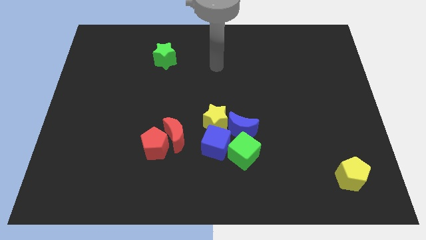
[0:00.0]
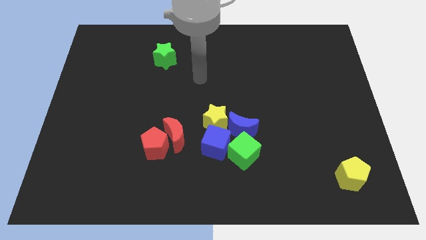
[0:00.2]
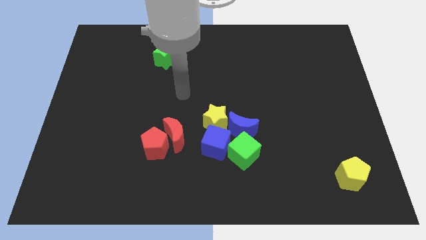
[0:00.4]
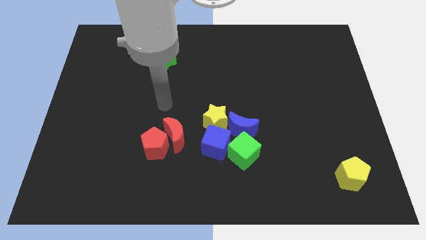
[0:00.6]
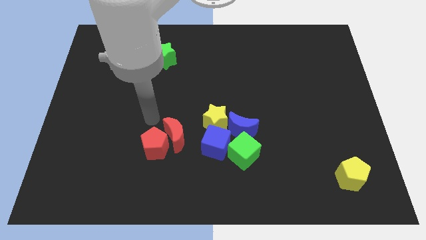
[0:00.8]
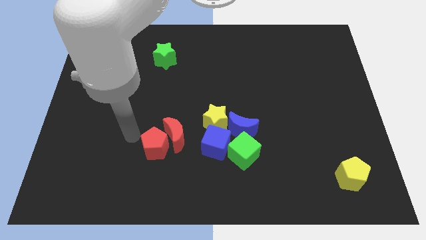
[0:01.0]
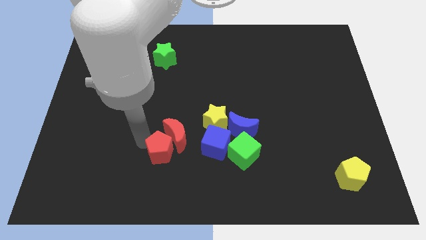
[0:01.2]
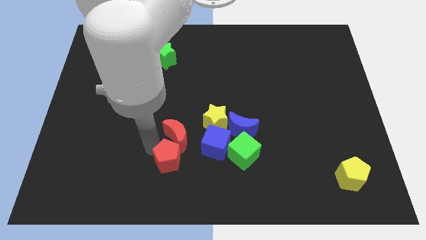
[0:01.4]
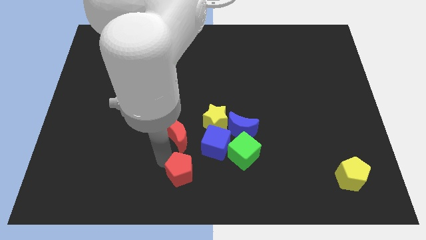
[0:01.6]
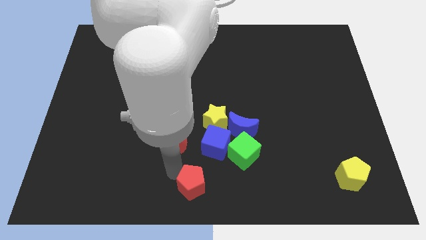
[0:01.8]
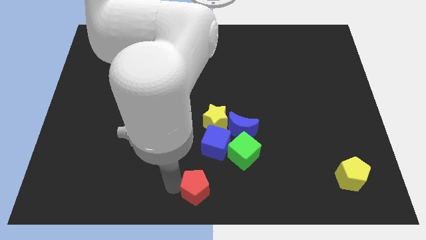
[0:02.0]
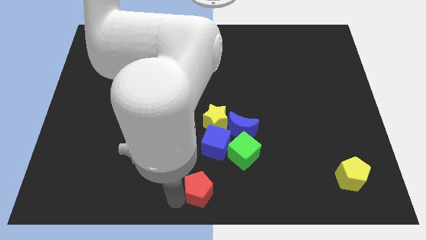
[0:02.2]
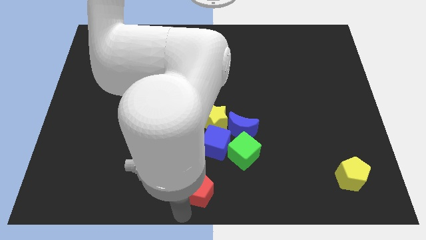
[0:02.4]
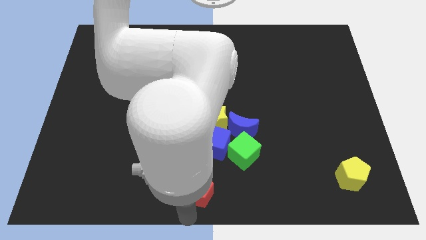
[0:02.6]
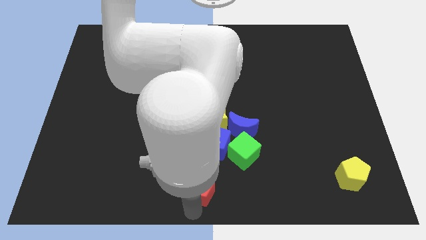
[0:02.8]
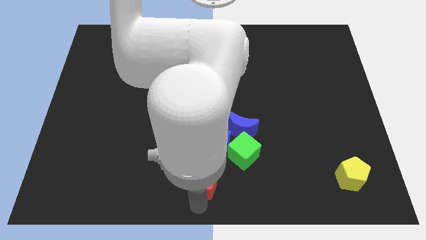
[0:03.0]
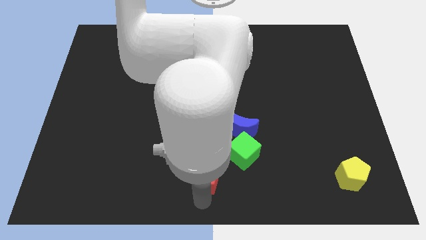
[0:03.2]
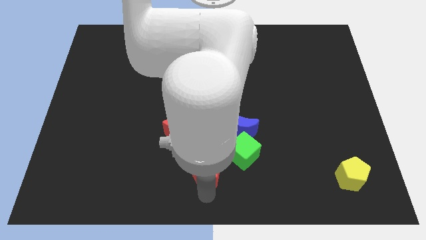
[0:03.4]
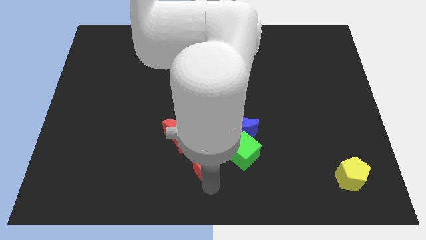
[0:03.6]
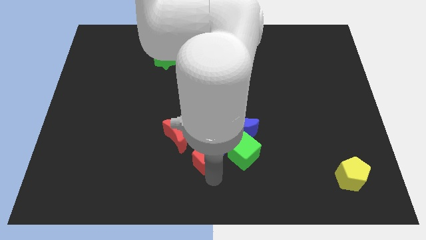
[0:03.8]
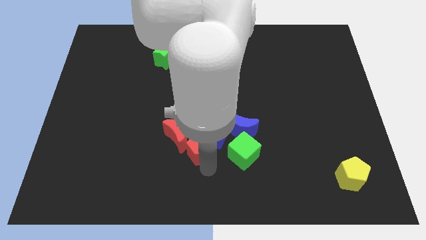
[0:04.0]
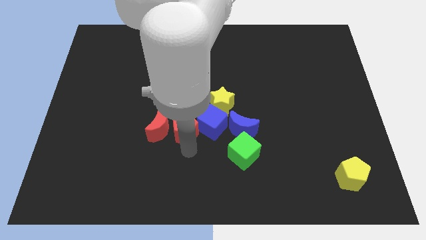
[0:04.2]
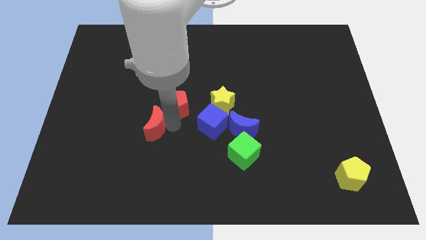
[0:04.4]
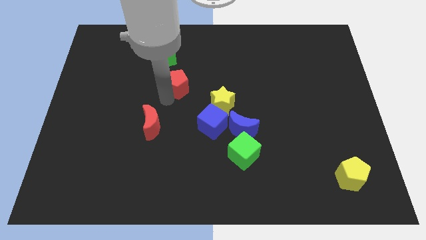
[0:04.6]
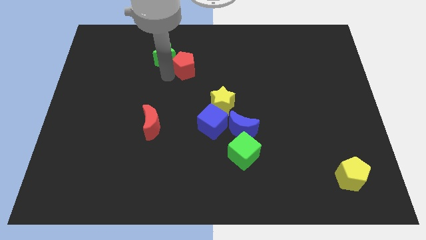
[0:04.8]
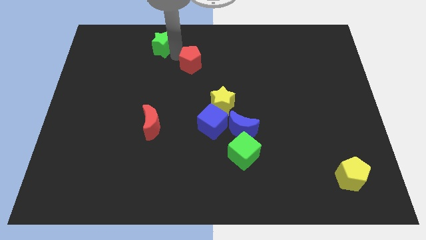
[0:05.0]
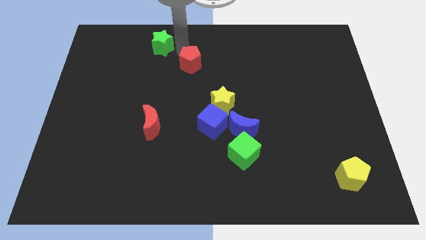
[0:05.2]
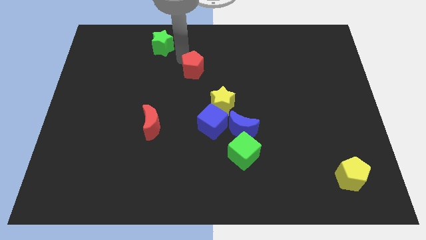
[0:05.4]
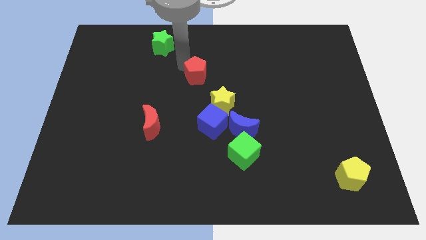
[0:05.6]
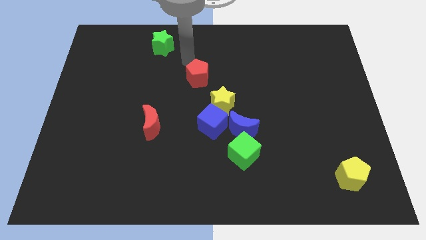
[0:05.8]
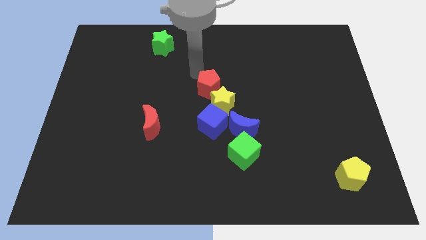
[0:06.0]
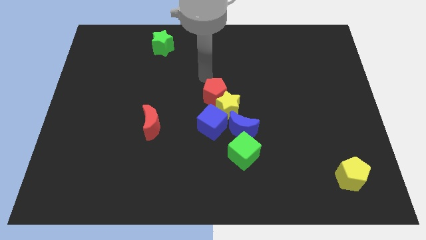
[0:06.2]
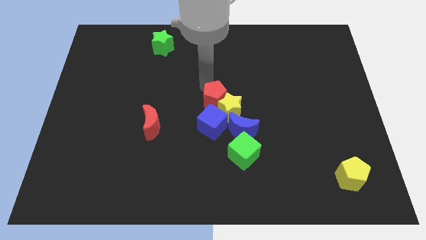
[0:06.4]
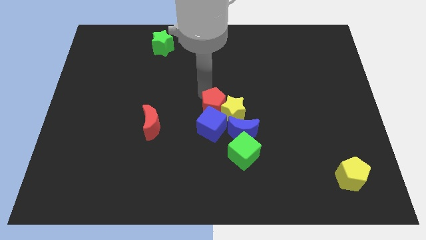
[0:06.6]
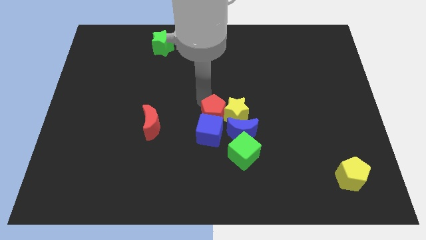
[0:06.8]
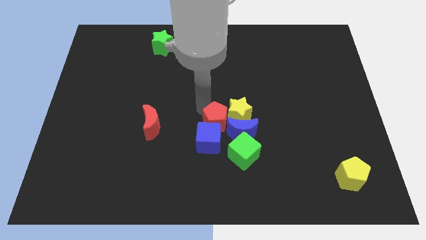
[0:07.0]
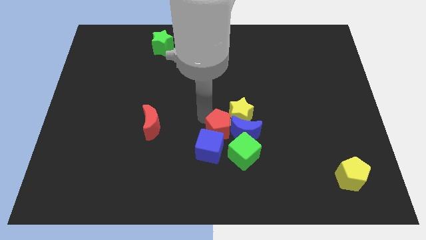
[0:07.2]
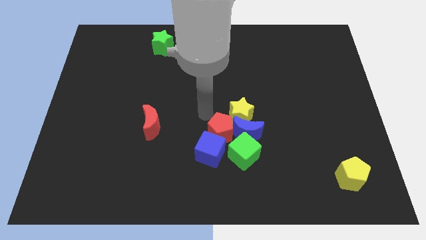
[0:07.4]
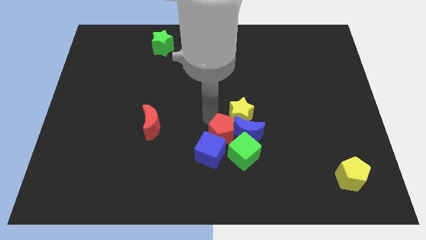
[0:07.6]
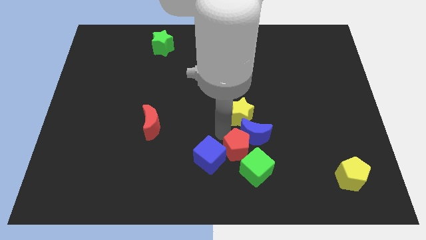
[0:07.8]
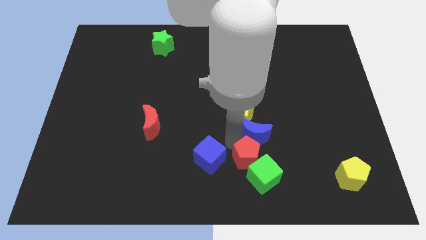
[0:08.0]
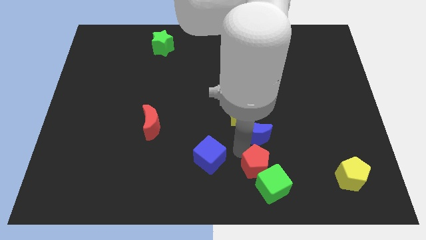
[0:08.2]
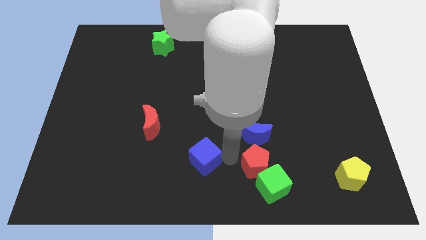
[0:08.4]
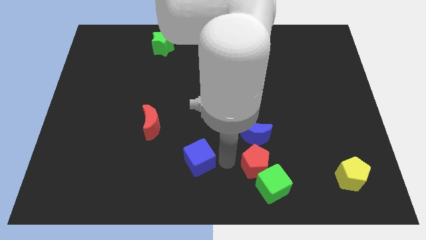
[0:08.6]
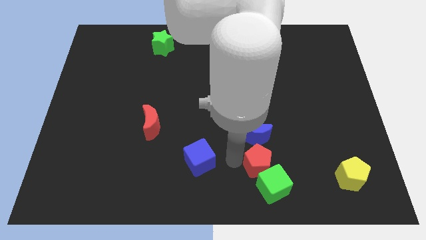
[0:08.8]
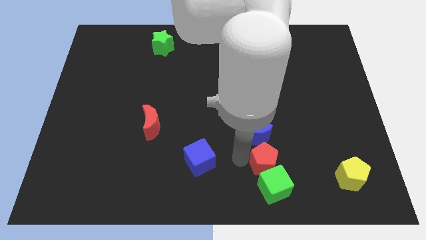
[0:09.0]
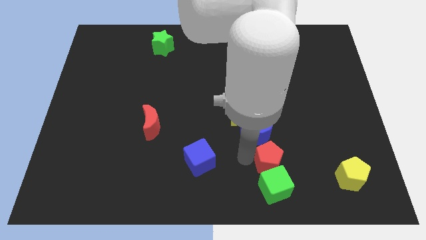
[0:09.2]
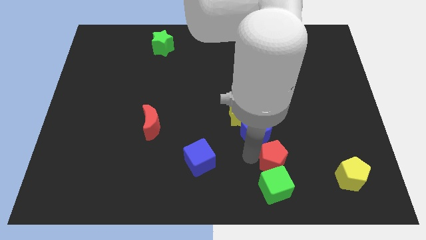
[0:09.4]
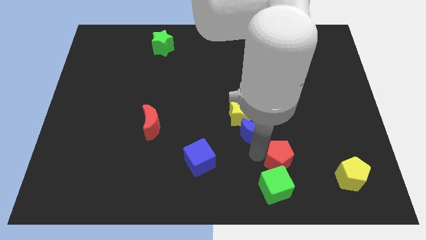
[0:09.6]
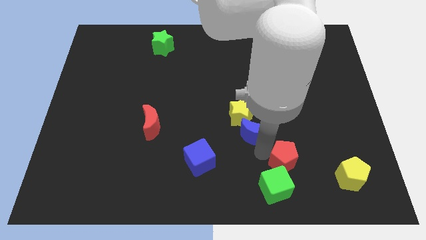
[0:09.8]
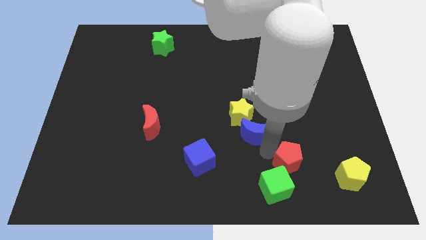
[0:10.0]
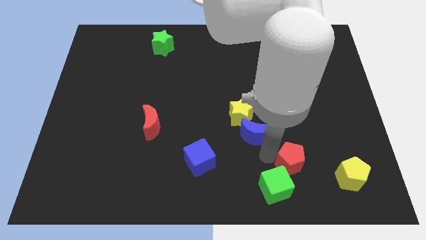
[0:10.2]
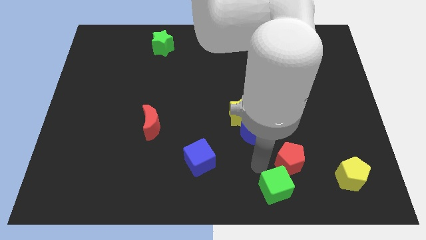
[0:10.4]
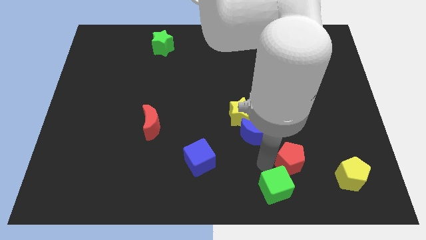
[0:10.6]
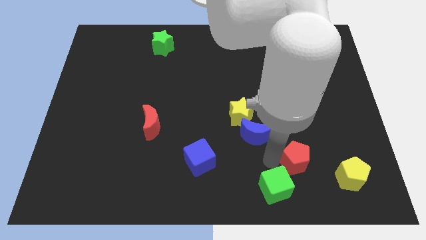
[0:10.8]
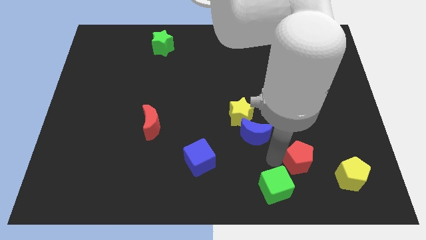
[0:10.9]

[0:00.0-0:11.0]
slide the red pentagon to the top left of the yellow pentagon
